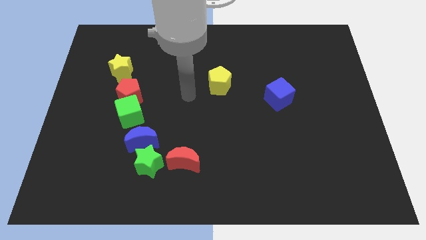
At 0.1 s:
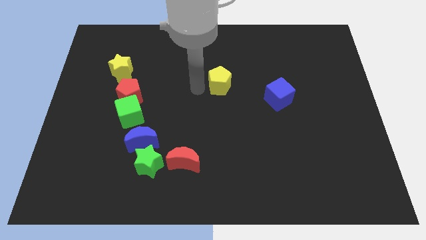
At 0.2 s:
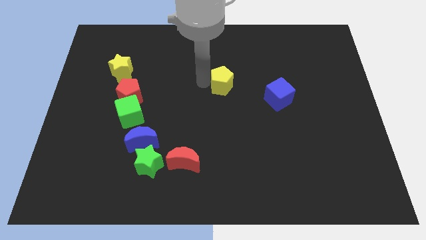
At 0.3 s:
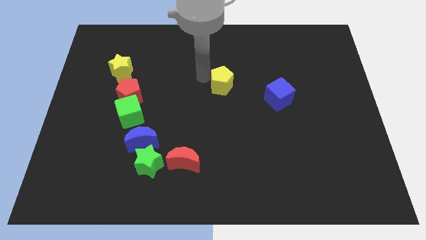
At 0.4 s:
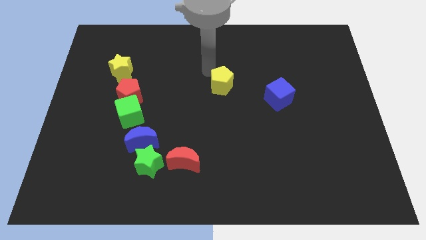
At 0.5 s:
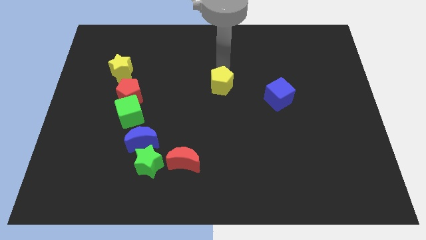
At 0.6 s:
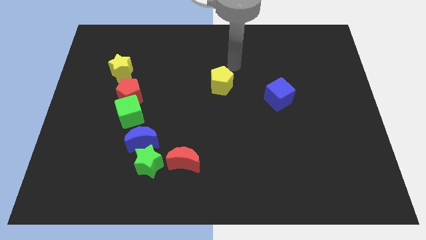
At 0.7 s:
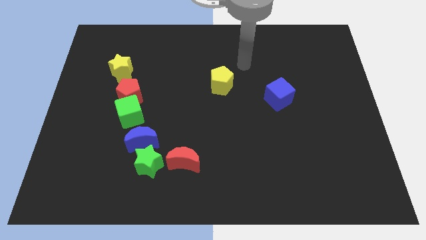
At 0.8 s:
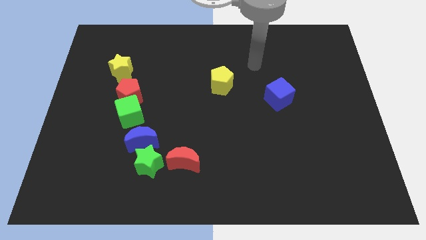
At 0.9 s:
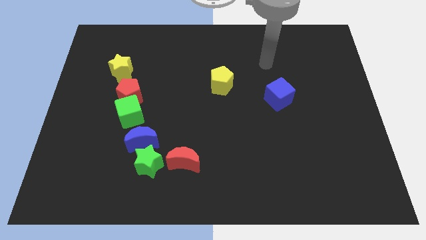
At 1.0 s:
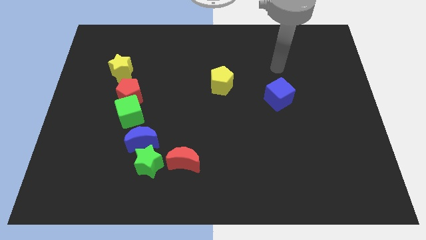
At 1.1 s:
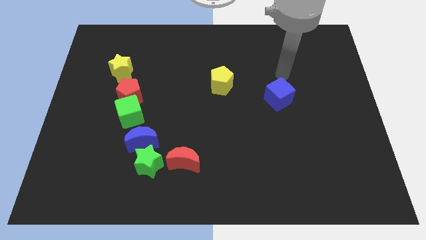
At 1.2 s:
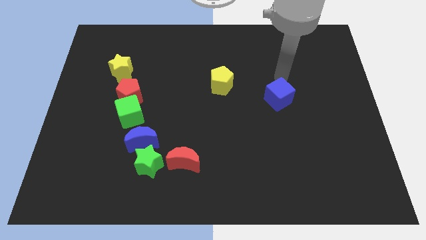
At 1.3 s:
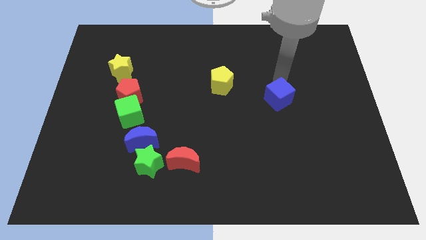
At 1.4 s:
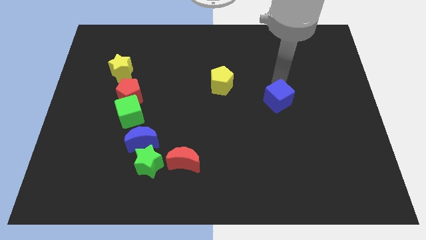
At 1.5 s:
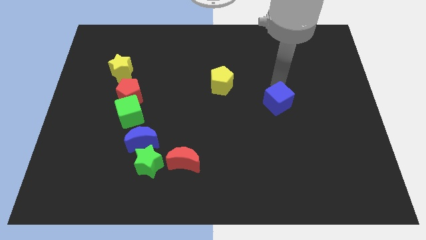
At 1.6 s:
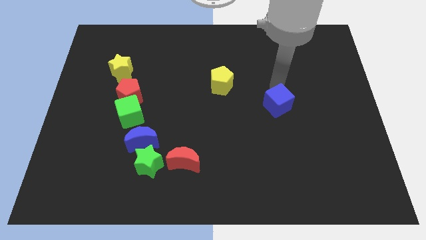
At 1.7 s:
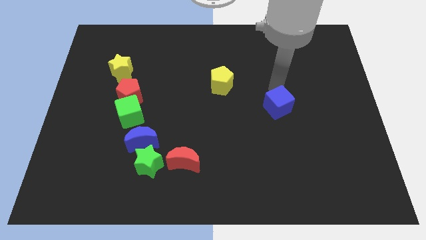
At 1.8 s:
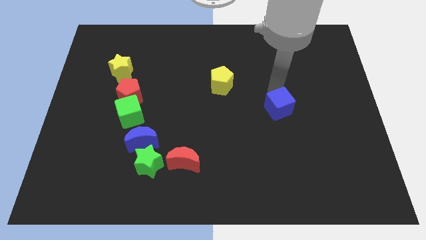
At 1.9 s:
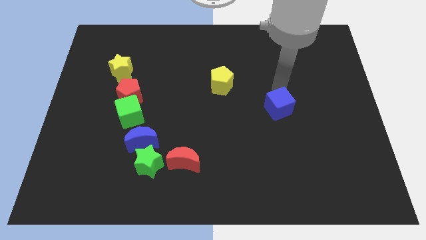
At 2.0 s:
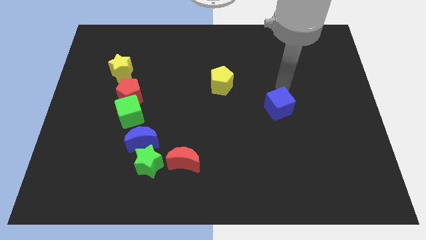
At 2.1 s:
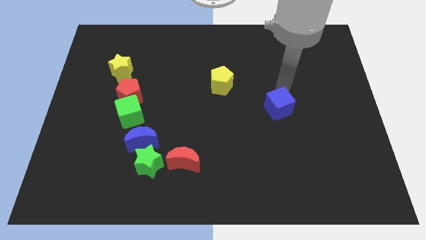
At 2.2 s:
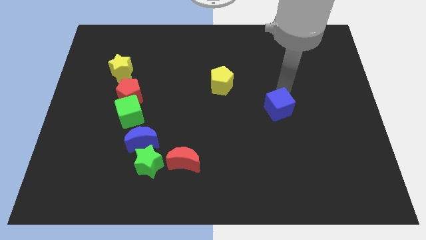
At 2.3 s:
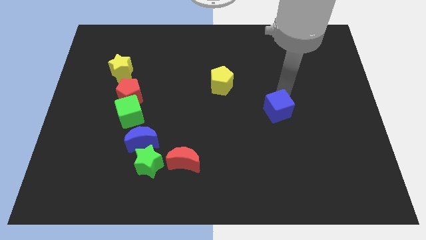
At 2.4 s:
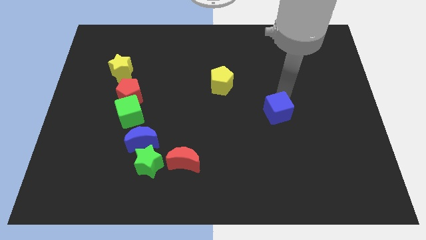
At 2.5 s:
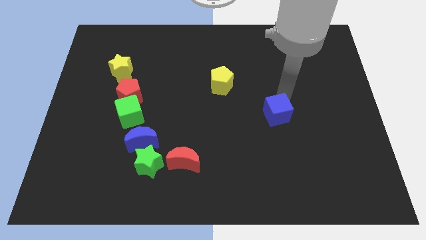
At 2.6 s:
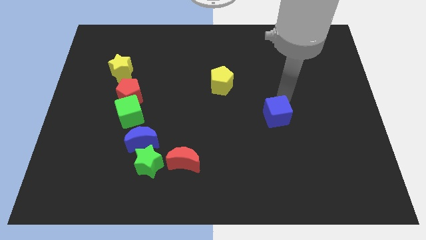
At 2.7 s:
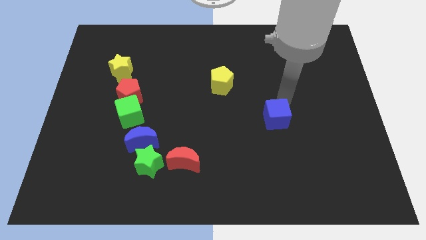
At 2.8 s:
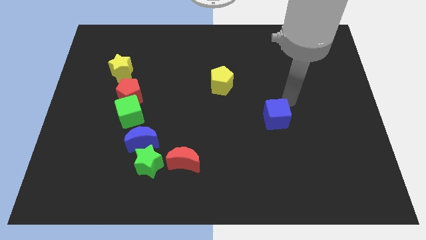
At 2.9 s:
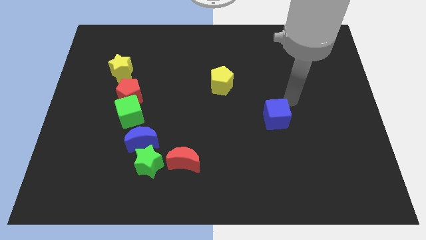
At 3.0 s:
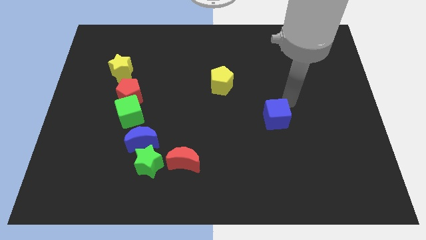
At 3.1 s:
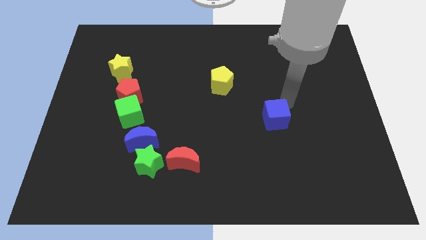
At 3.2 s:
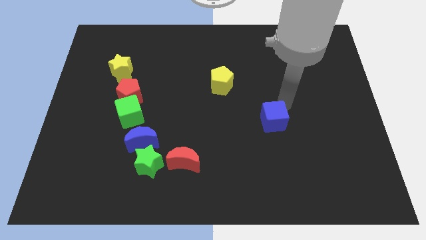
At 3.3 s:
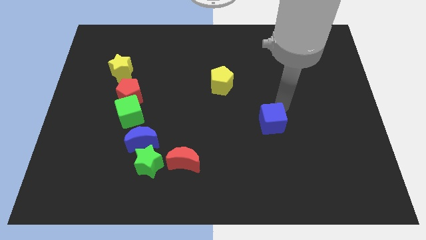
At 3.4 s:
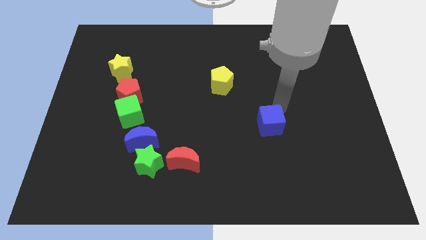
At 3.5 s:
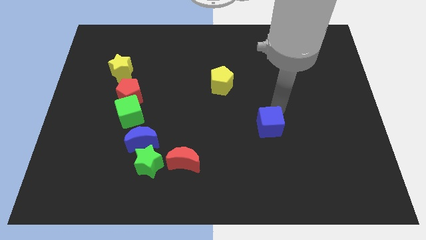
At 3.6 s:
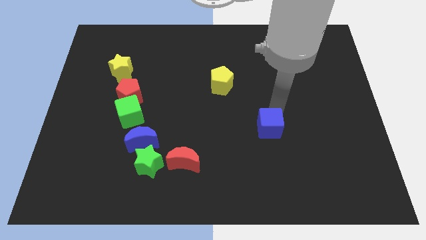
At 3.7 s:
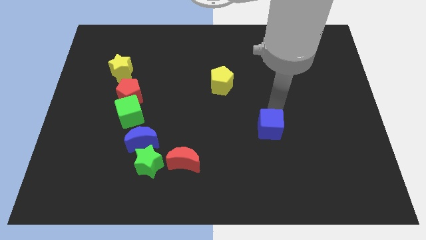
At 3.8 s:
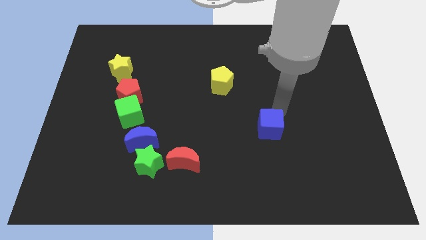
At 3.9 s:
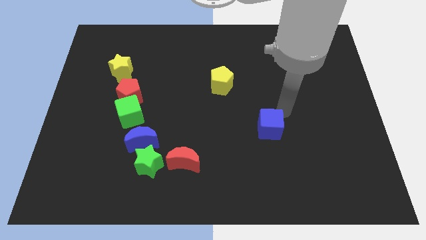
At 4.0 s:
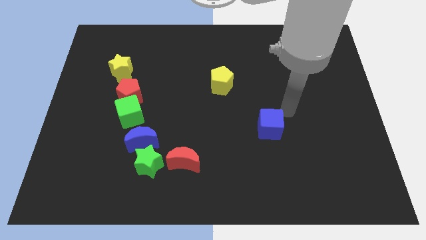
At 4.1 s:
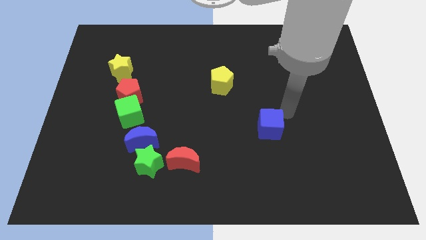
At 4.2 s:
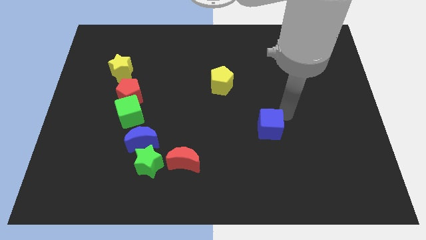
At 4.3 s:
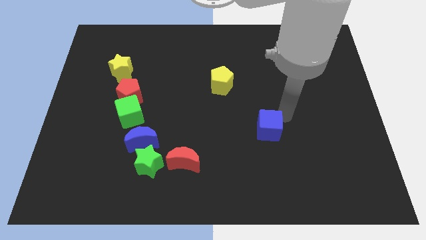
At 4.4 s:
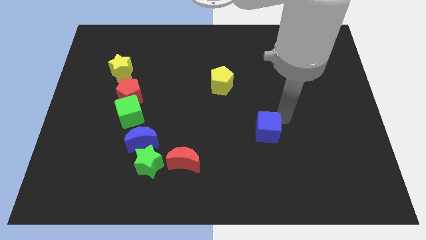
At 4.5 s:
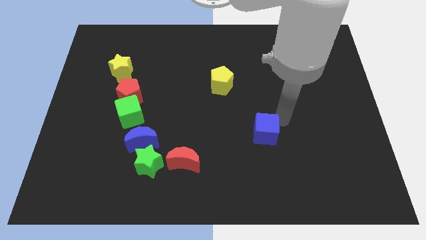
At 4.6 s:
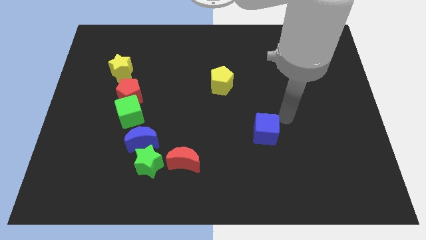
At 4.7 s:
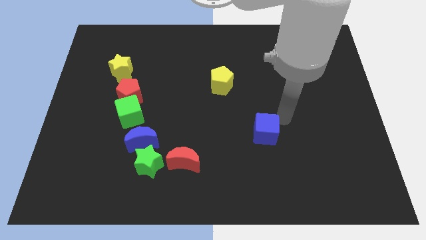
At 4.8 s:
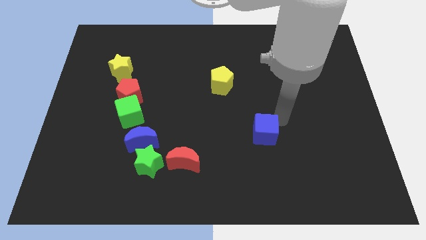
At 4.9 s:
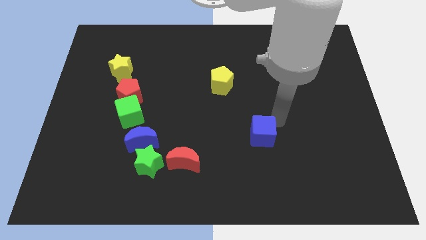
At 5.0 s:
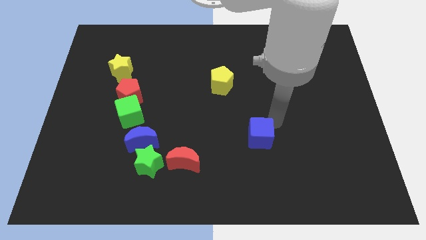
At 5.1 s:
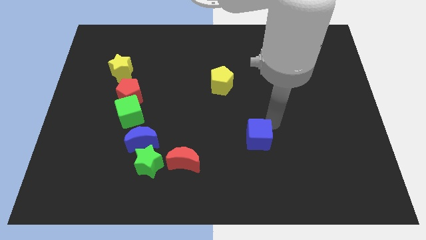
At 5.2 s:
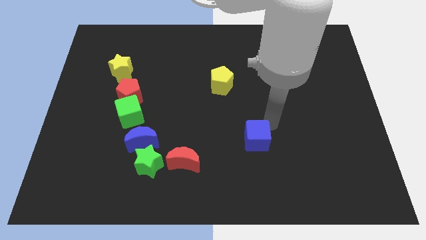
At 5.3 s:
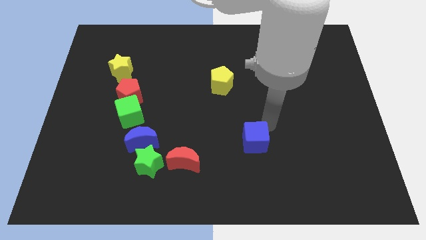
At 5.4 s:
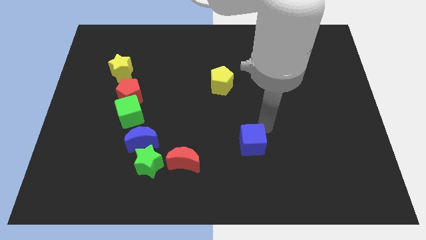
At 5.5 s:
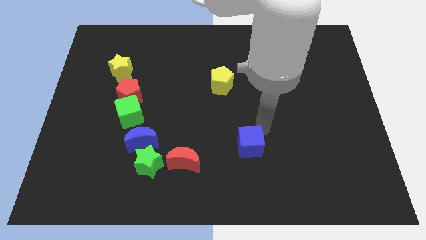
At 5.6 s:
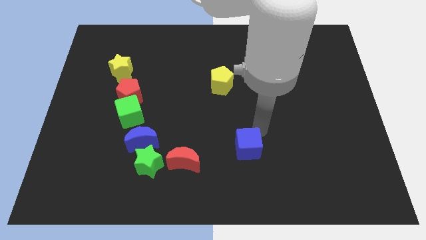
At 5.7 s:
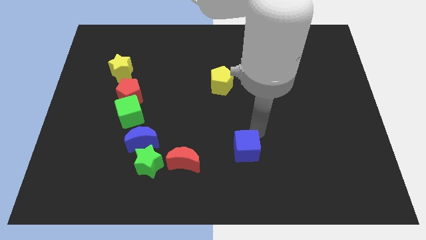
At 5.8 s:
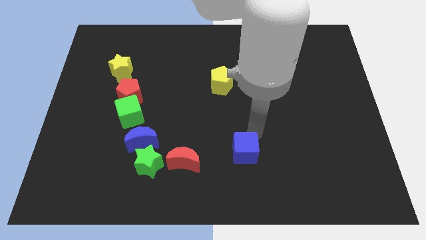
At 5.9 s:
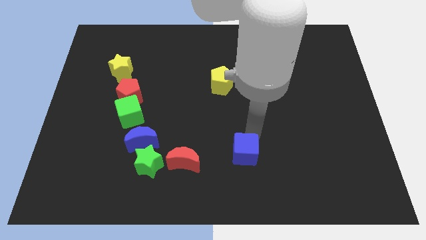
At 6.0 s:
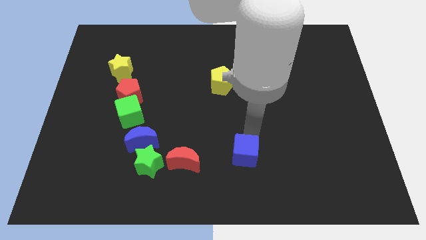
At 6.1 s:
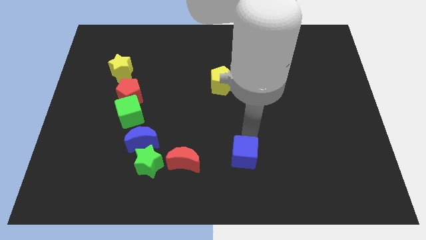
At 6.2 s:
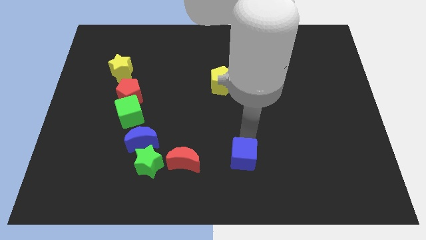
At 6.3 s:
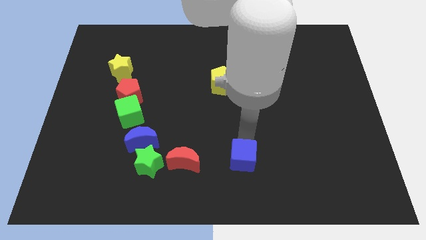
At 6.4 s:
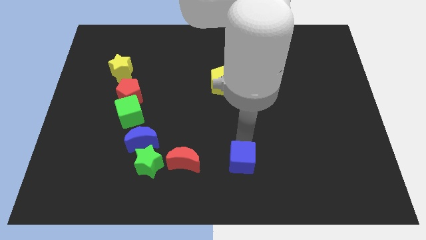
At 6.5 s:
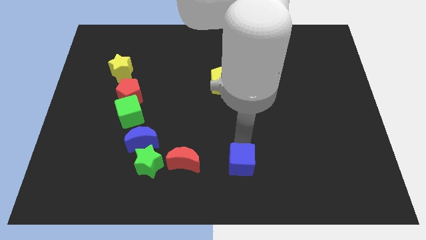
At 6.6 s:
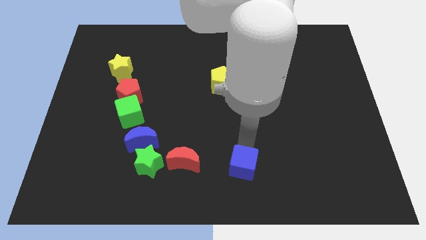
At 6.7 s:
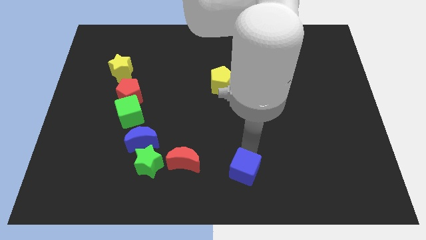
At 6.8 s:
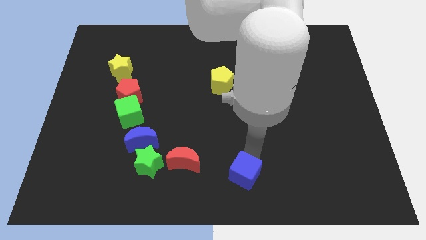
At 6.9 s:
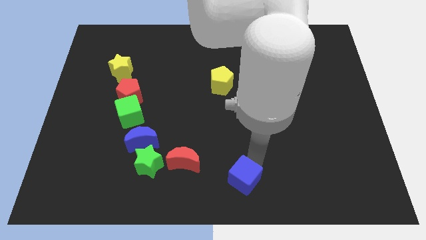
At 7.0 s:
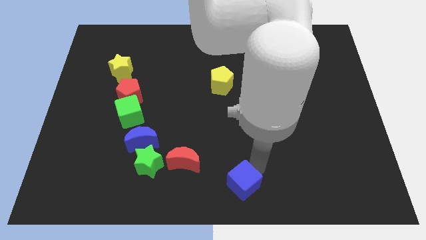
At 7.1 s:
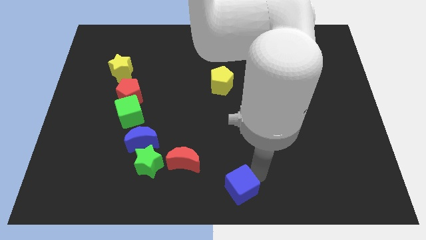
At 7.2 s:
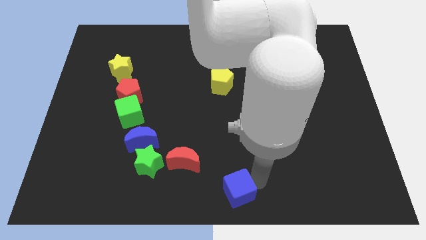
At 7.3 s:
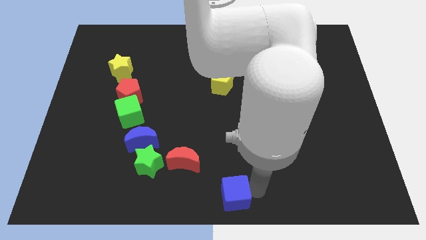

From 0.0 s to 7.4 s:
move the blue cube to the bottom right side of the red moon
